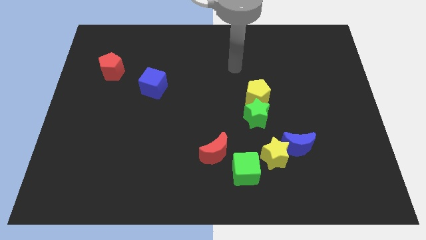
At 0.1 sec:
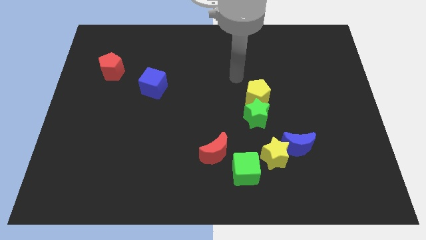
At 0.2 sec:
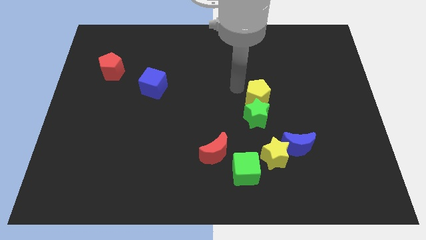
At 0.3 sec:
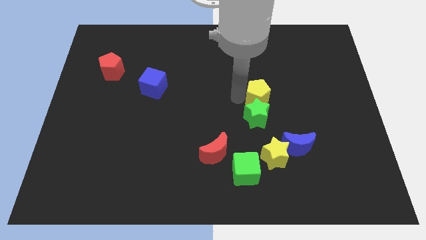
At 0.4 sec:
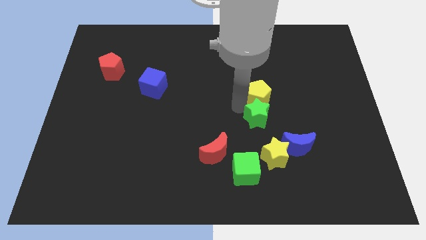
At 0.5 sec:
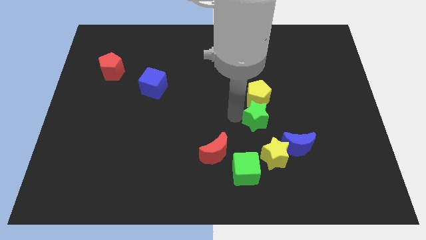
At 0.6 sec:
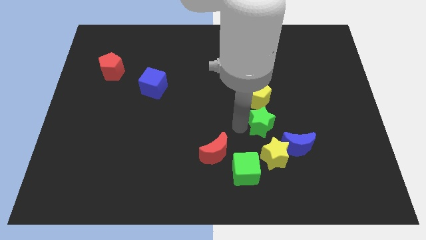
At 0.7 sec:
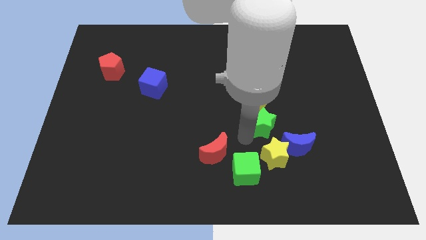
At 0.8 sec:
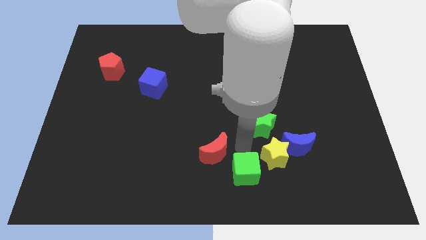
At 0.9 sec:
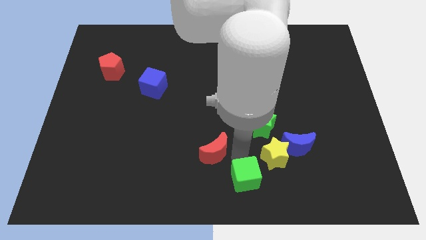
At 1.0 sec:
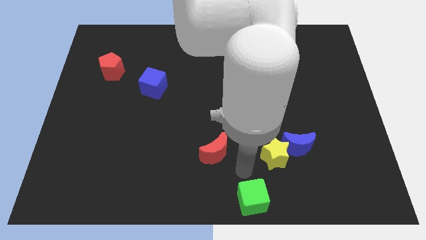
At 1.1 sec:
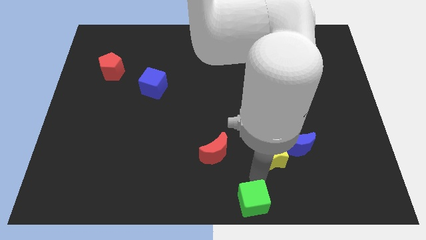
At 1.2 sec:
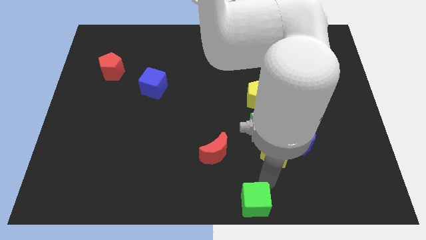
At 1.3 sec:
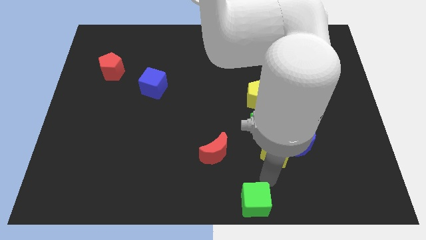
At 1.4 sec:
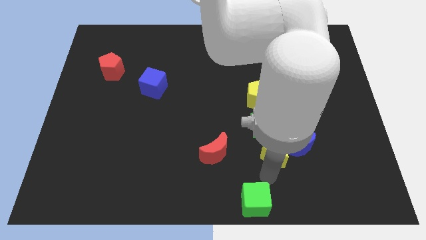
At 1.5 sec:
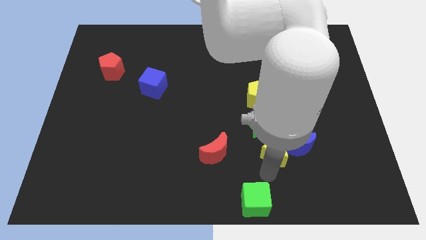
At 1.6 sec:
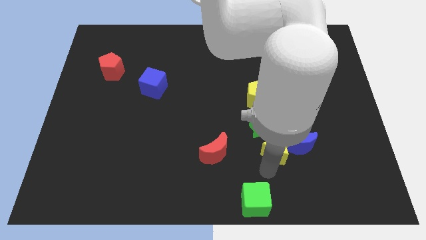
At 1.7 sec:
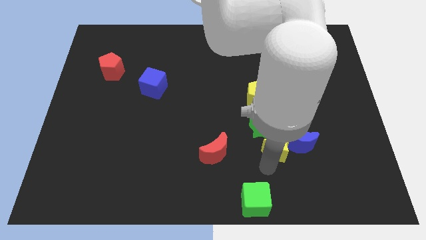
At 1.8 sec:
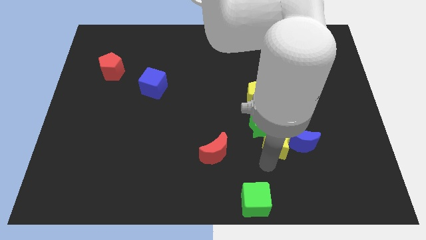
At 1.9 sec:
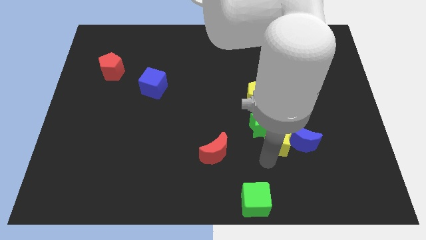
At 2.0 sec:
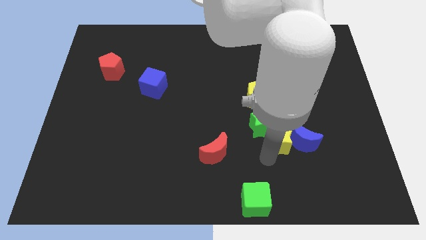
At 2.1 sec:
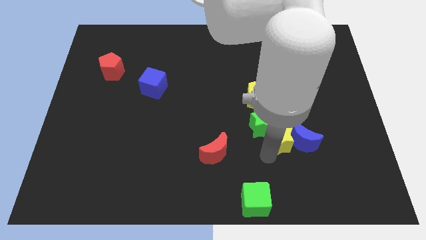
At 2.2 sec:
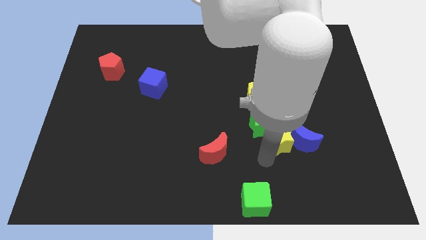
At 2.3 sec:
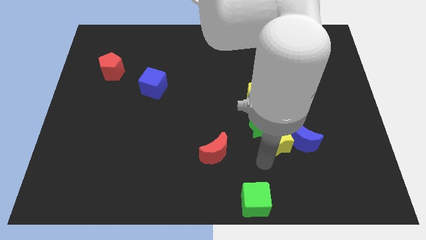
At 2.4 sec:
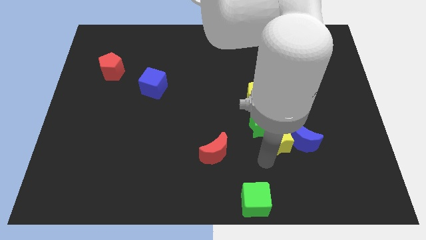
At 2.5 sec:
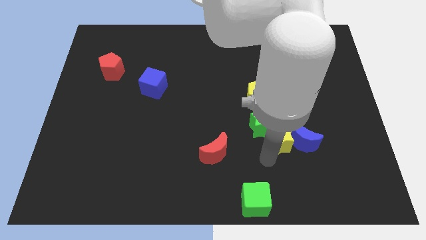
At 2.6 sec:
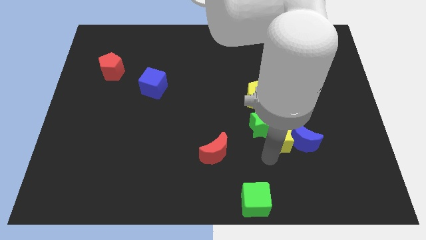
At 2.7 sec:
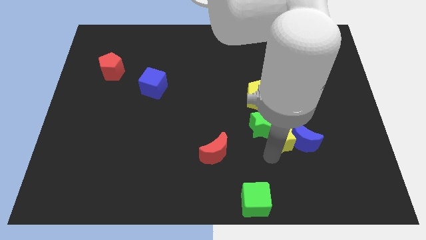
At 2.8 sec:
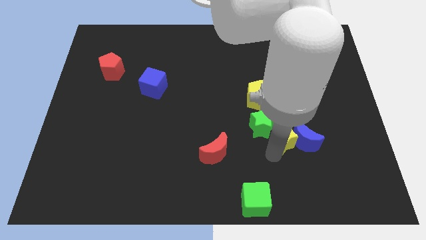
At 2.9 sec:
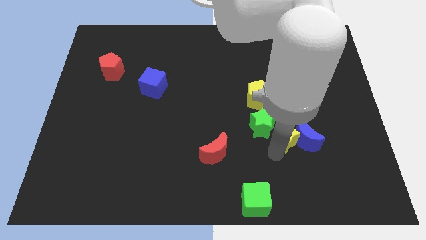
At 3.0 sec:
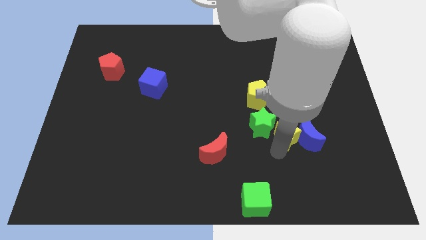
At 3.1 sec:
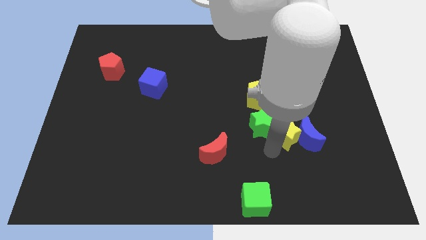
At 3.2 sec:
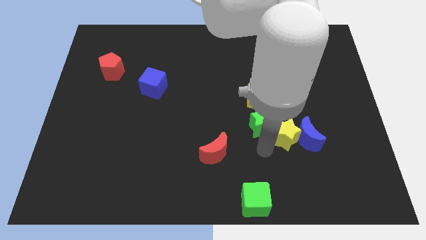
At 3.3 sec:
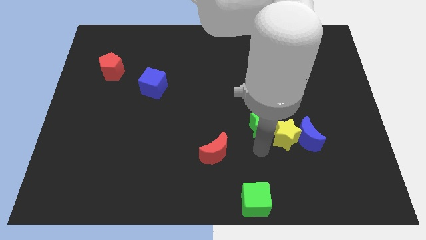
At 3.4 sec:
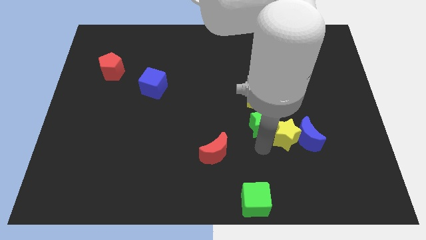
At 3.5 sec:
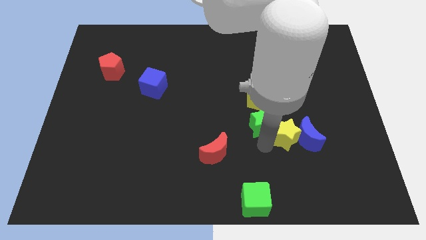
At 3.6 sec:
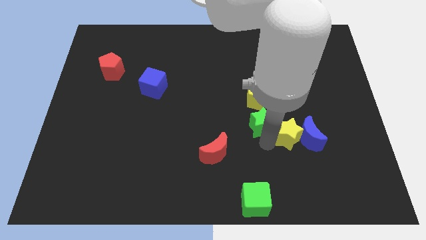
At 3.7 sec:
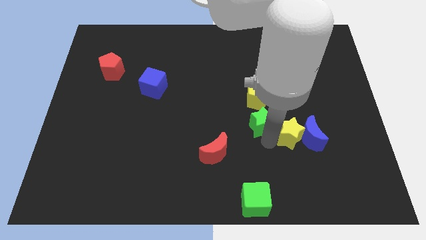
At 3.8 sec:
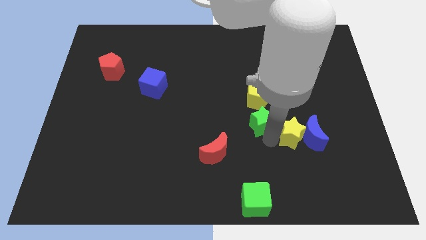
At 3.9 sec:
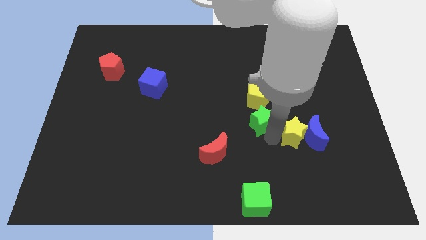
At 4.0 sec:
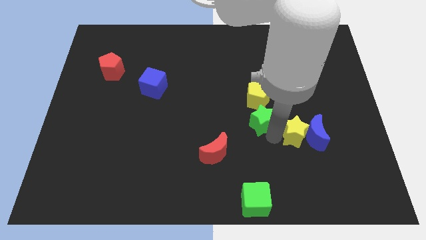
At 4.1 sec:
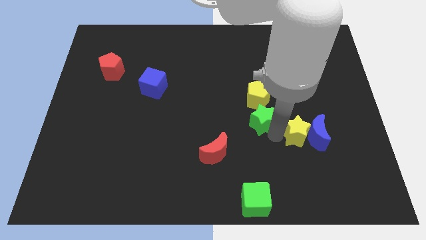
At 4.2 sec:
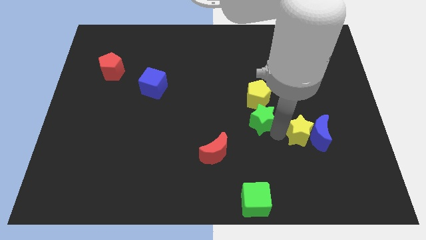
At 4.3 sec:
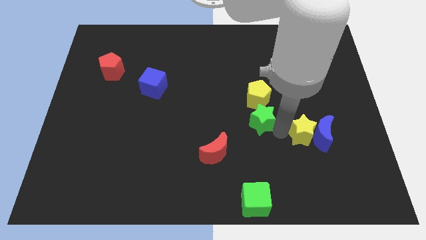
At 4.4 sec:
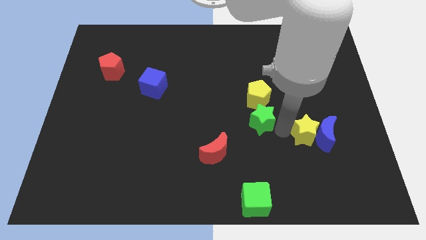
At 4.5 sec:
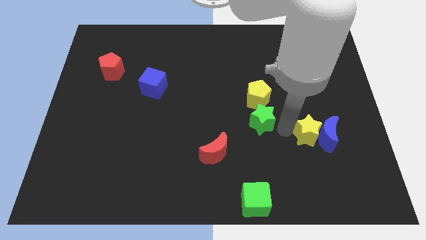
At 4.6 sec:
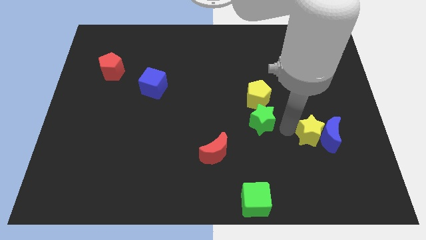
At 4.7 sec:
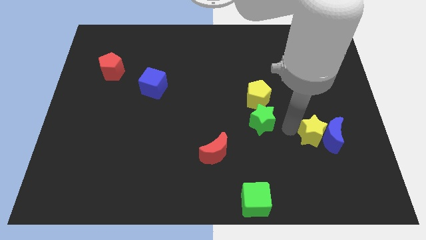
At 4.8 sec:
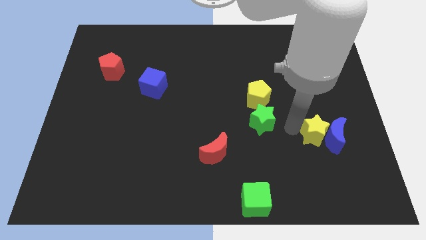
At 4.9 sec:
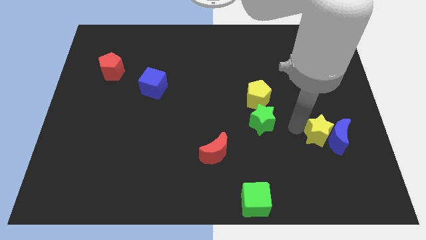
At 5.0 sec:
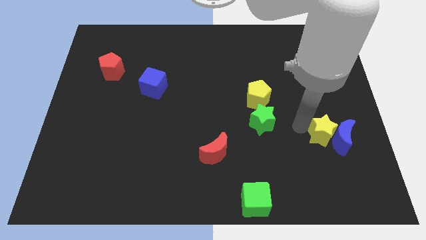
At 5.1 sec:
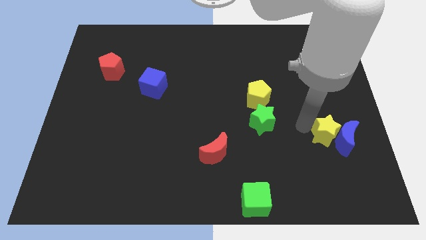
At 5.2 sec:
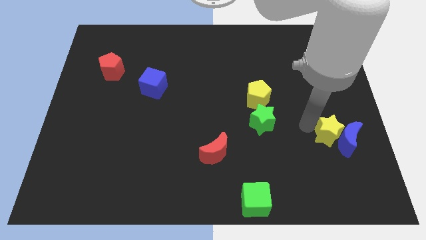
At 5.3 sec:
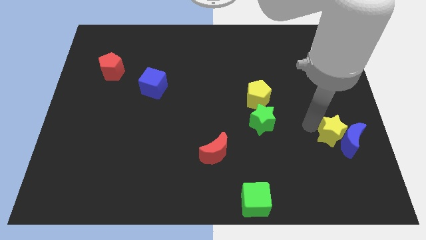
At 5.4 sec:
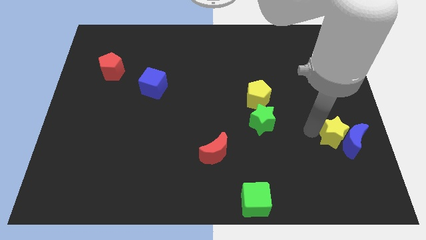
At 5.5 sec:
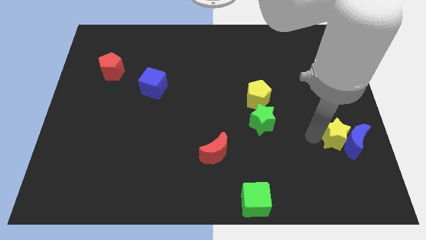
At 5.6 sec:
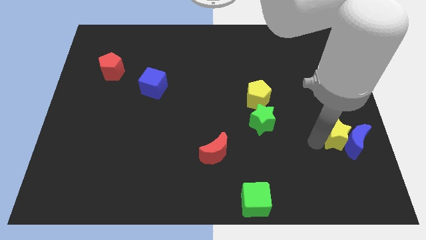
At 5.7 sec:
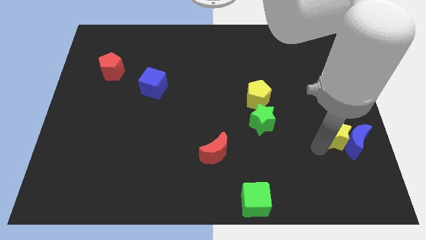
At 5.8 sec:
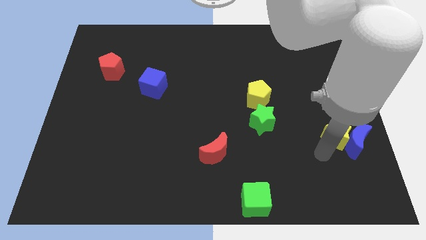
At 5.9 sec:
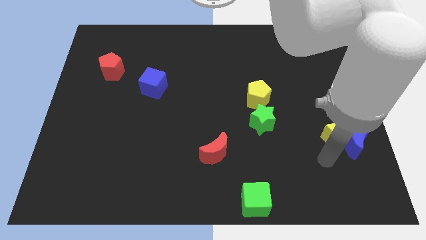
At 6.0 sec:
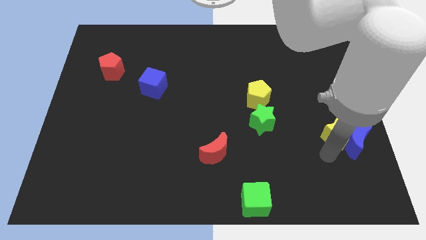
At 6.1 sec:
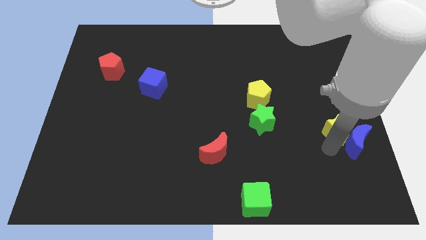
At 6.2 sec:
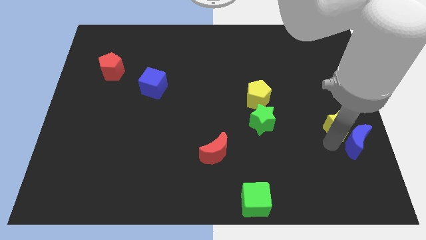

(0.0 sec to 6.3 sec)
slide the yellow star to the center right
